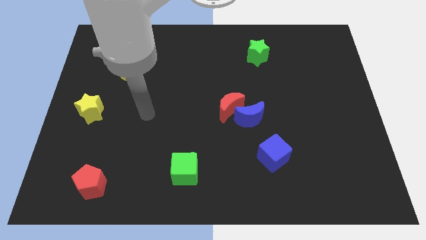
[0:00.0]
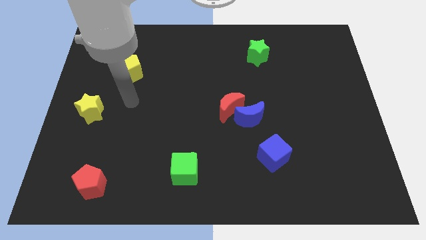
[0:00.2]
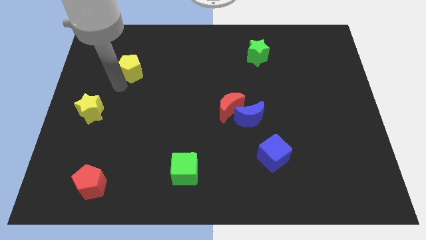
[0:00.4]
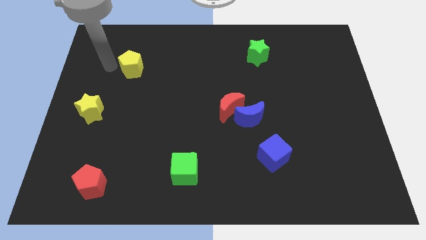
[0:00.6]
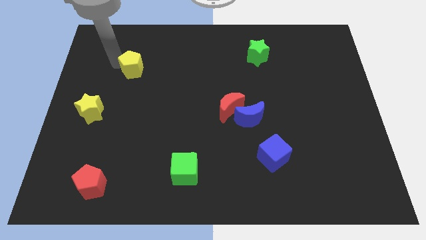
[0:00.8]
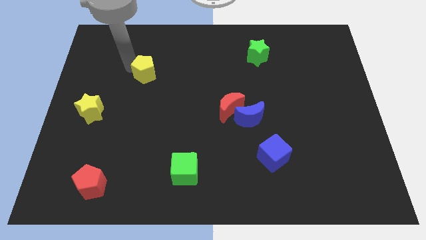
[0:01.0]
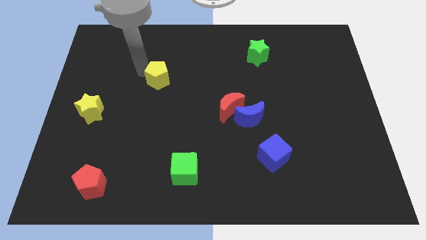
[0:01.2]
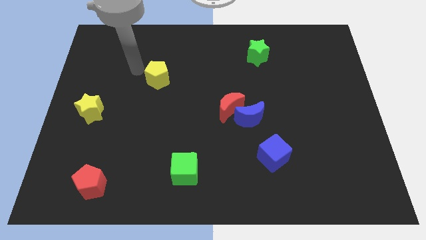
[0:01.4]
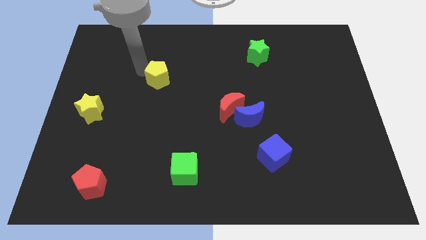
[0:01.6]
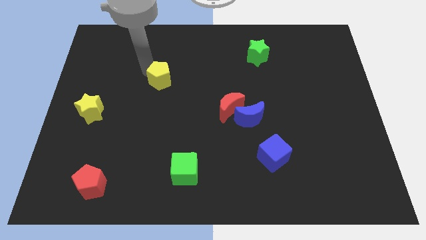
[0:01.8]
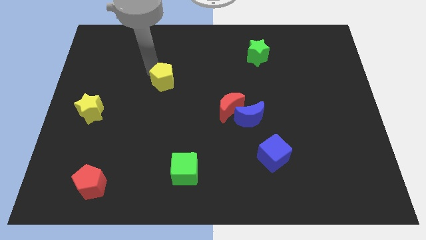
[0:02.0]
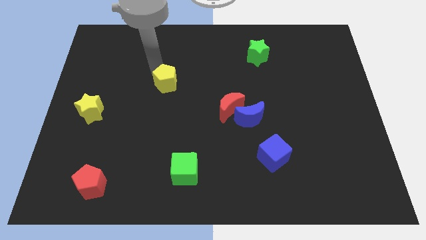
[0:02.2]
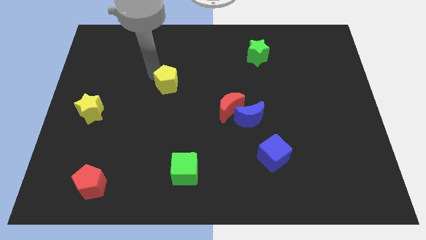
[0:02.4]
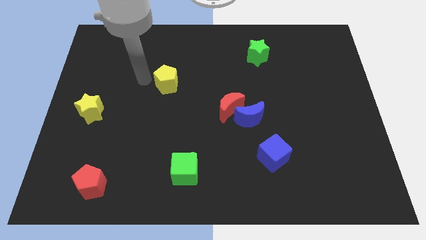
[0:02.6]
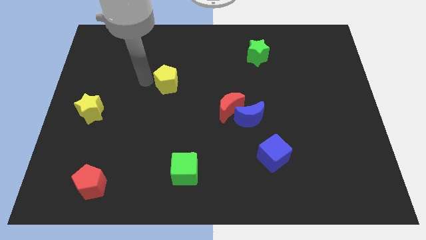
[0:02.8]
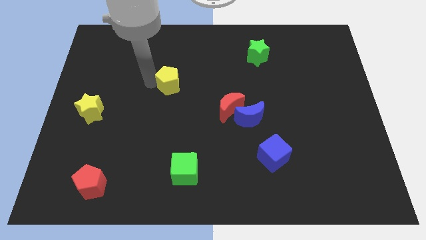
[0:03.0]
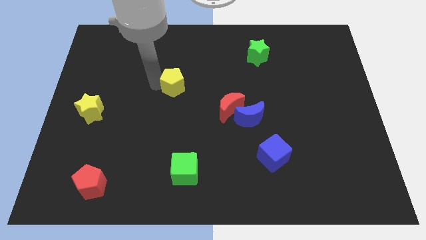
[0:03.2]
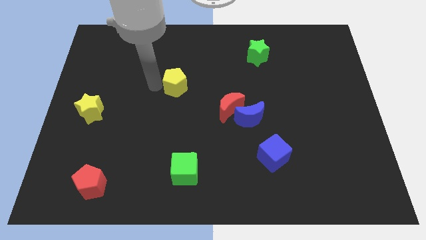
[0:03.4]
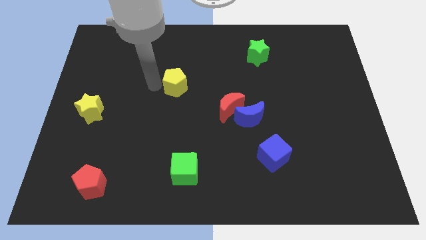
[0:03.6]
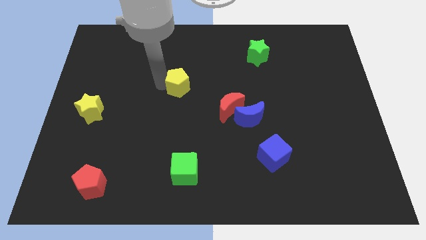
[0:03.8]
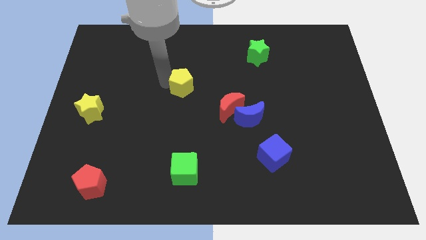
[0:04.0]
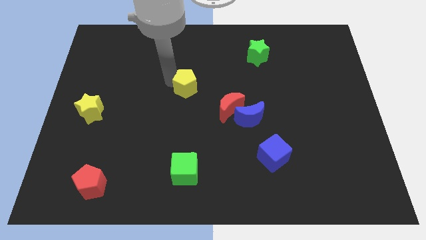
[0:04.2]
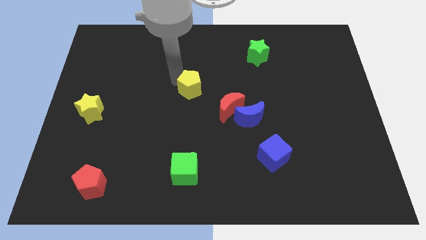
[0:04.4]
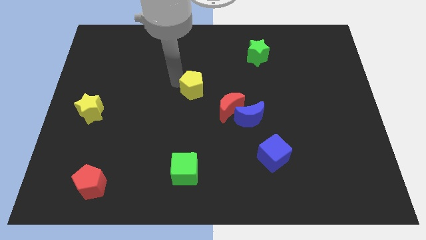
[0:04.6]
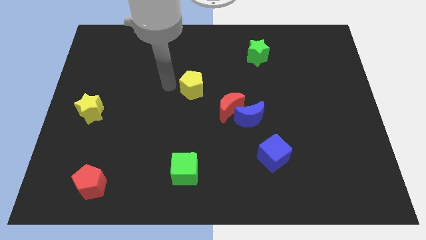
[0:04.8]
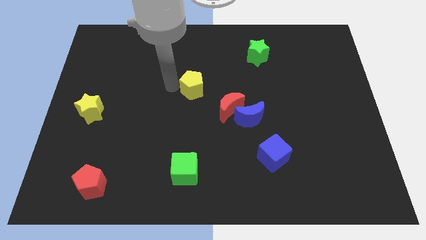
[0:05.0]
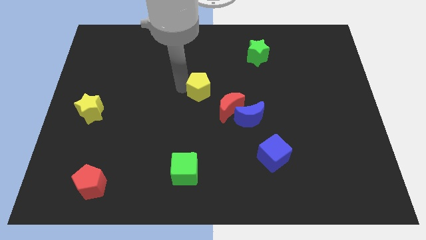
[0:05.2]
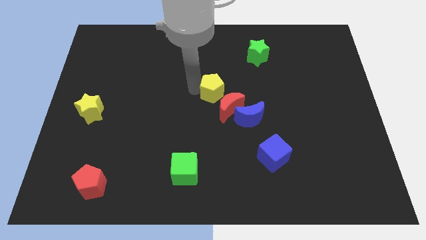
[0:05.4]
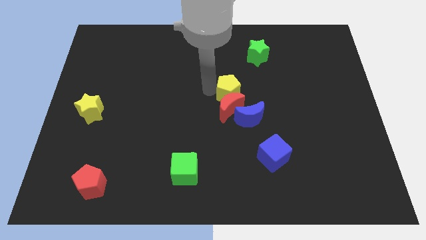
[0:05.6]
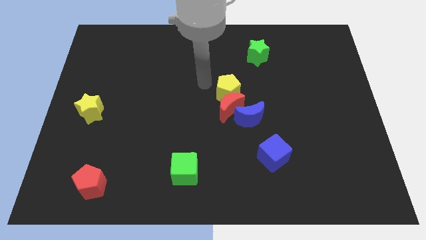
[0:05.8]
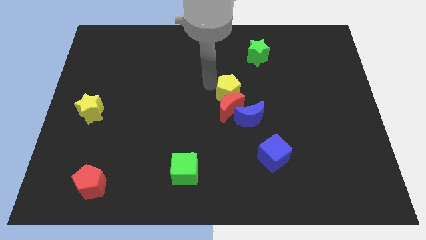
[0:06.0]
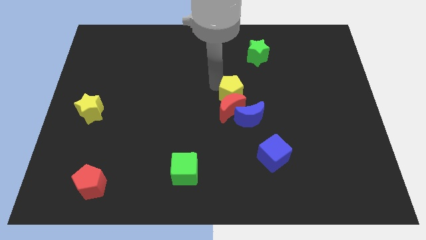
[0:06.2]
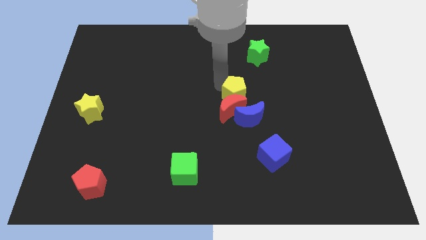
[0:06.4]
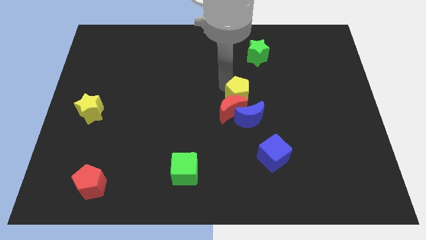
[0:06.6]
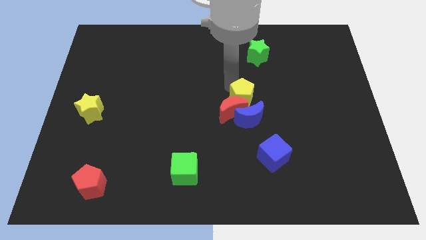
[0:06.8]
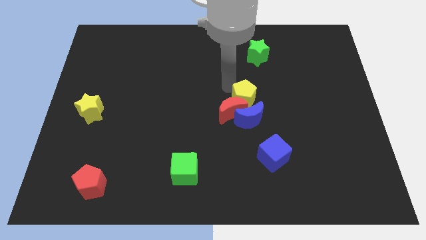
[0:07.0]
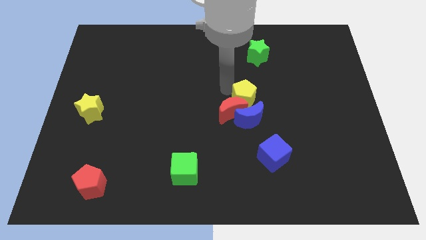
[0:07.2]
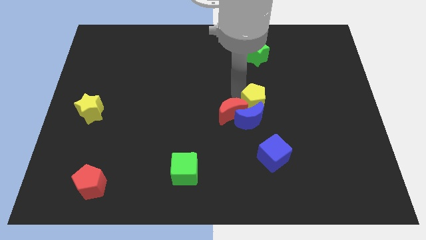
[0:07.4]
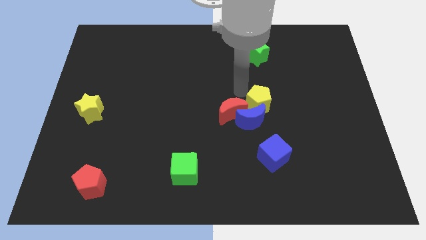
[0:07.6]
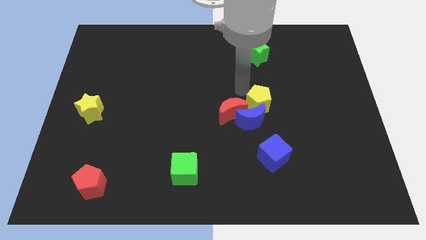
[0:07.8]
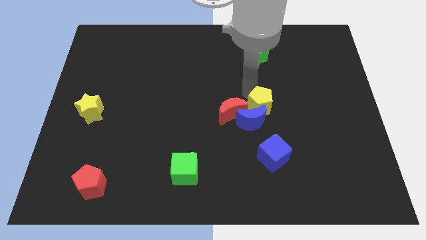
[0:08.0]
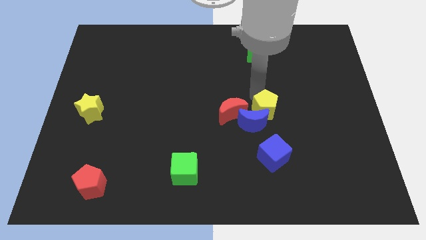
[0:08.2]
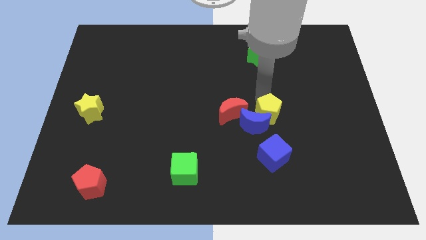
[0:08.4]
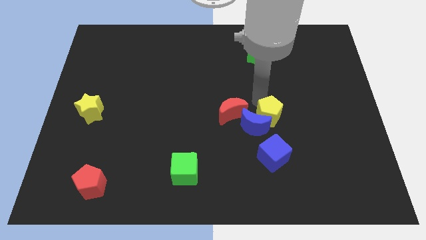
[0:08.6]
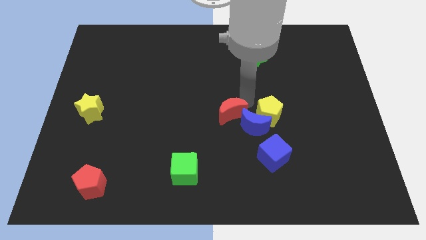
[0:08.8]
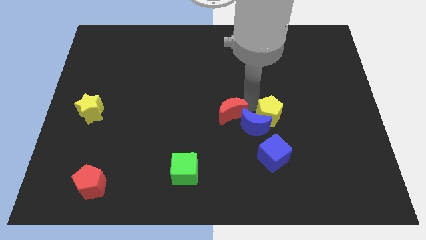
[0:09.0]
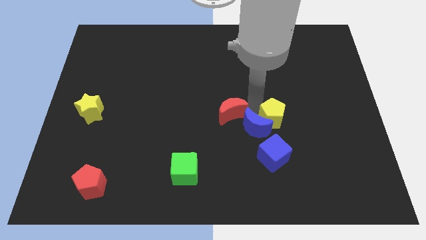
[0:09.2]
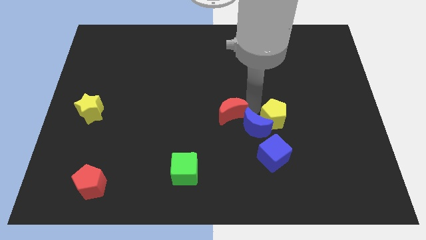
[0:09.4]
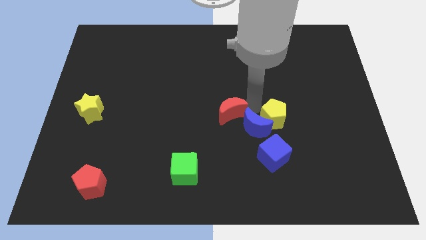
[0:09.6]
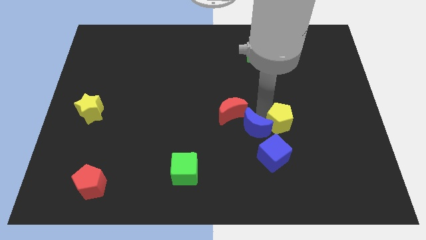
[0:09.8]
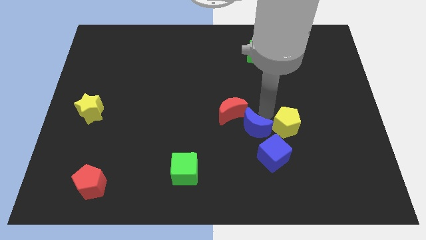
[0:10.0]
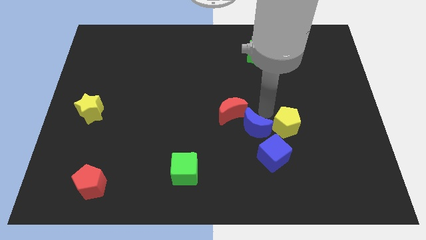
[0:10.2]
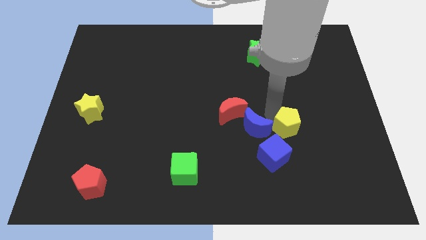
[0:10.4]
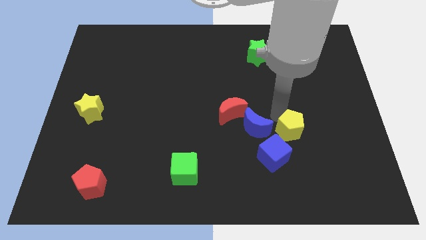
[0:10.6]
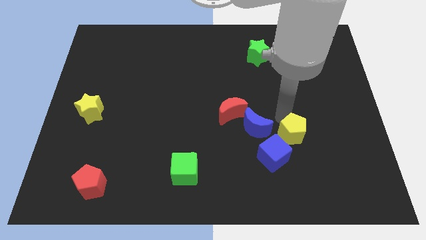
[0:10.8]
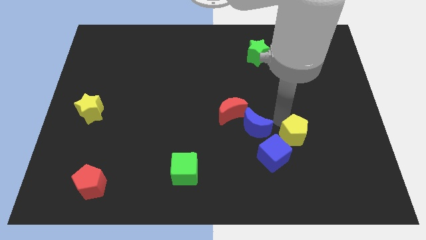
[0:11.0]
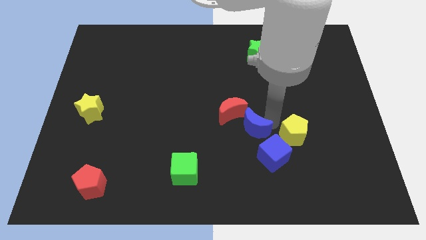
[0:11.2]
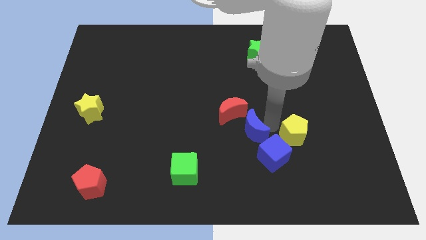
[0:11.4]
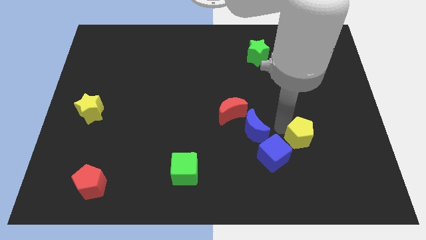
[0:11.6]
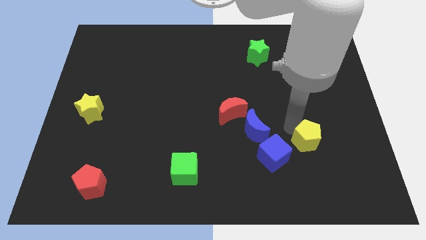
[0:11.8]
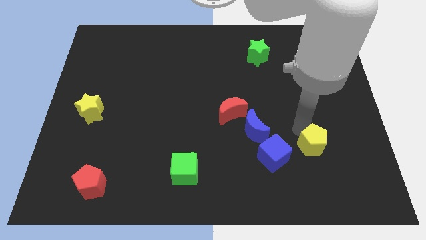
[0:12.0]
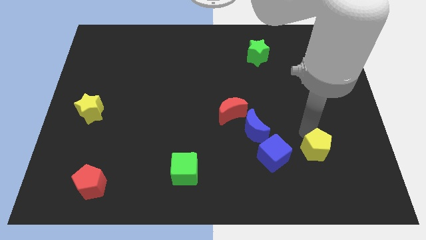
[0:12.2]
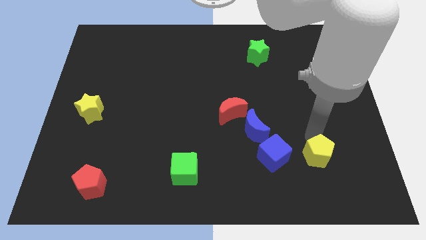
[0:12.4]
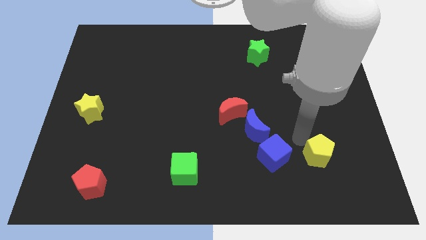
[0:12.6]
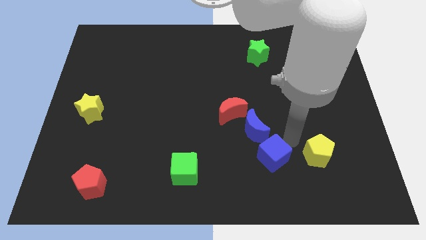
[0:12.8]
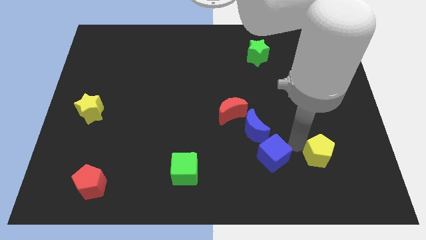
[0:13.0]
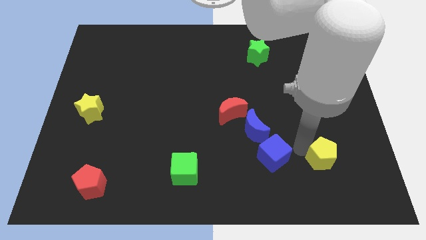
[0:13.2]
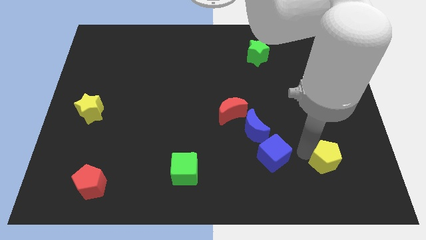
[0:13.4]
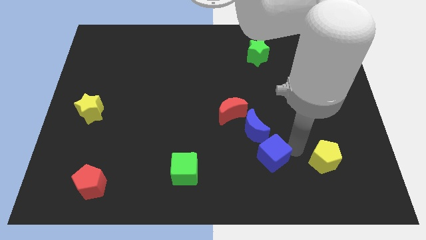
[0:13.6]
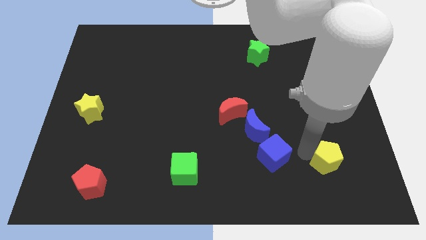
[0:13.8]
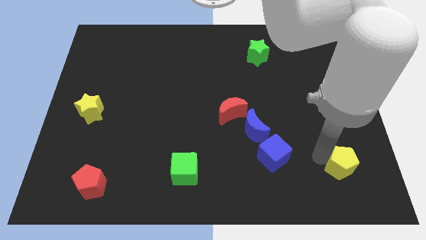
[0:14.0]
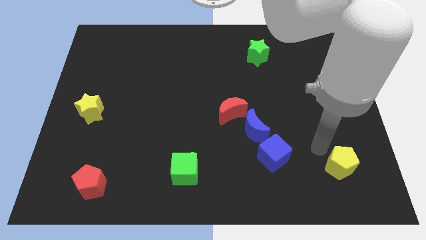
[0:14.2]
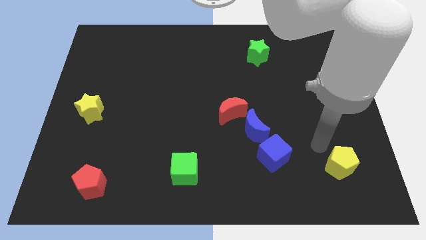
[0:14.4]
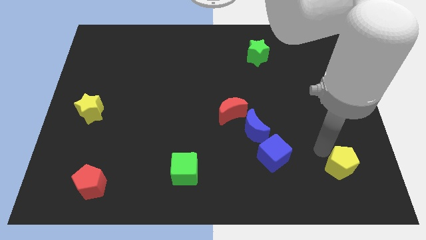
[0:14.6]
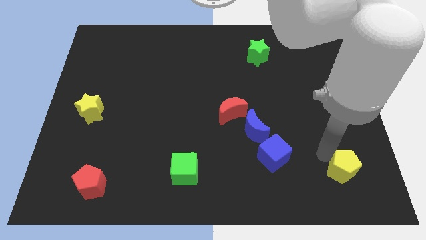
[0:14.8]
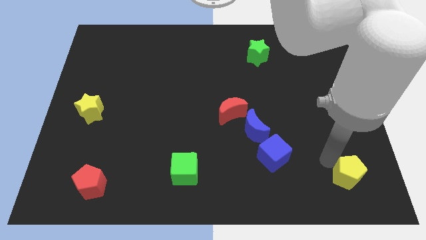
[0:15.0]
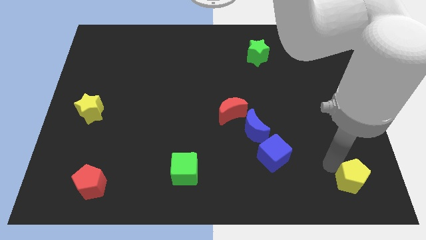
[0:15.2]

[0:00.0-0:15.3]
move the yellow pentagon to the bottom right corner
